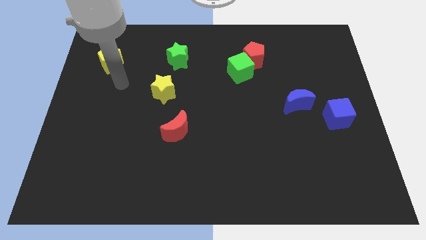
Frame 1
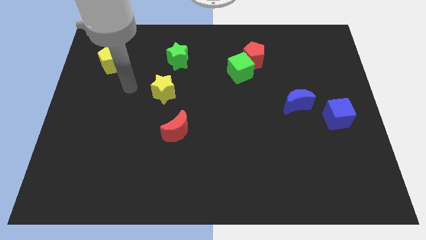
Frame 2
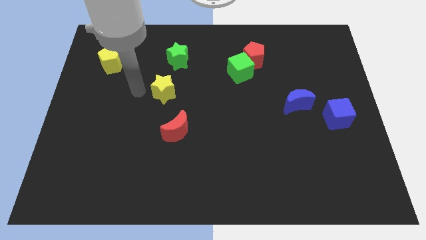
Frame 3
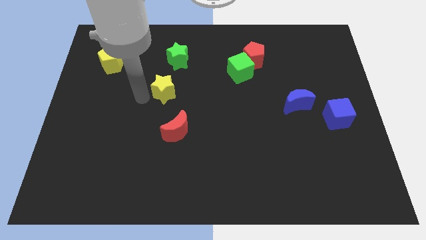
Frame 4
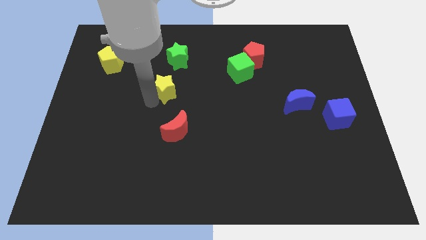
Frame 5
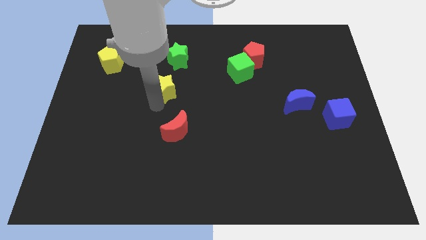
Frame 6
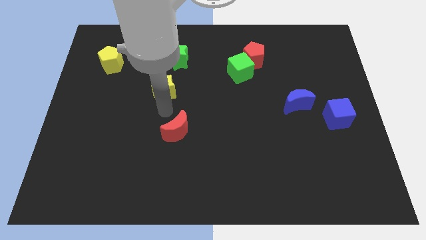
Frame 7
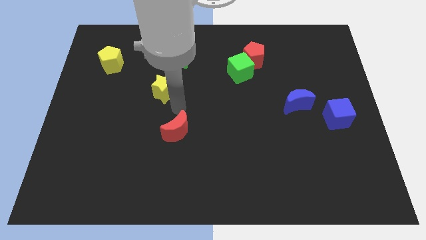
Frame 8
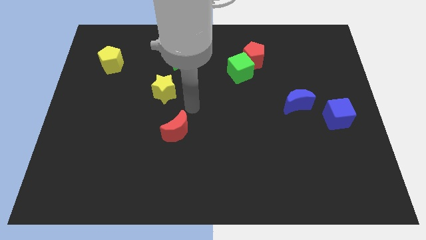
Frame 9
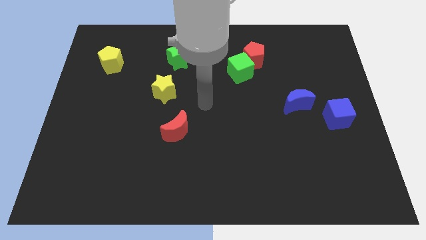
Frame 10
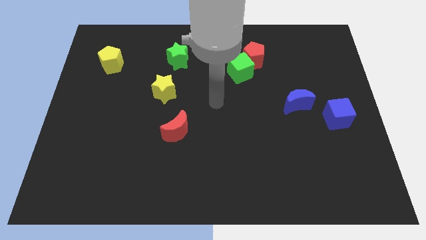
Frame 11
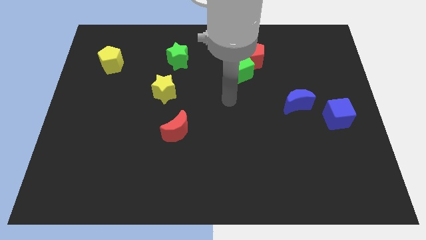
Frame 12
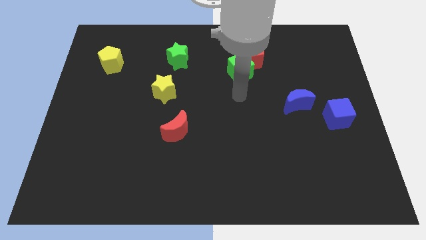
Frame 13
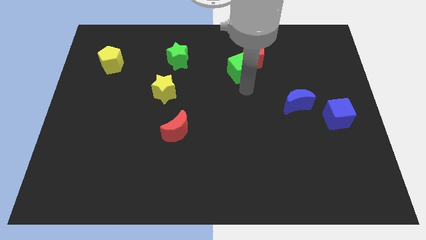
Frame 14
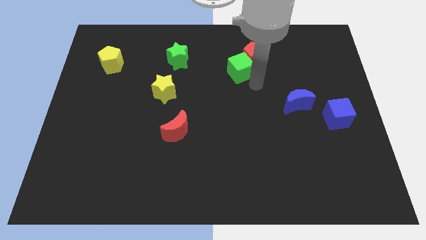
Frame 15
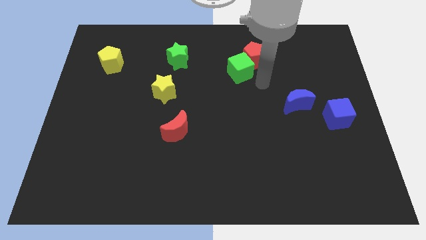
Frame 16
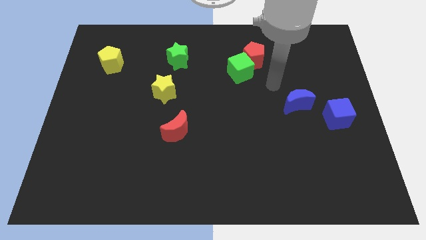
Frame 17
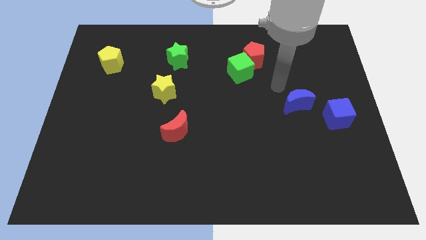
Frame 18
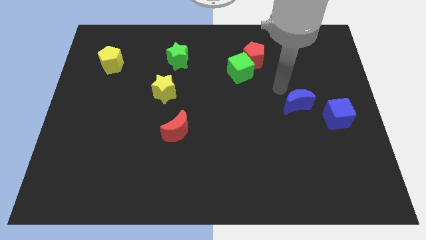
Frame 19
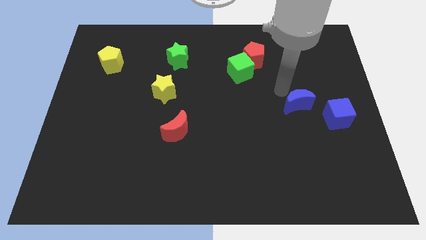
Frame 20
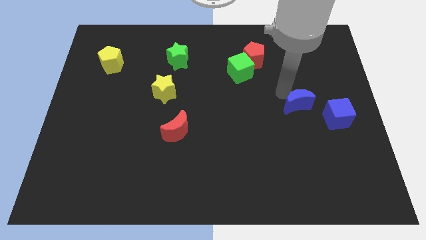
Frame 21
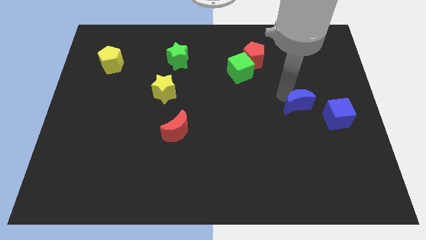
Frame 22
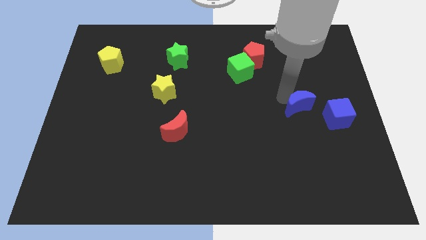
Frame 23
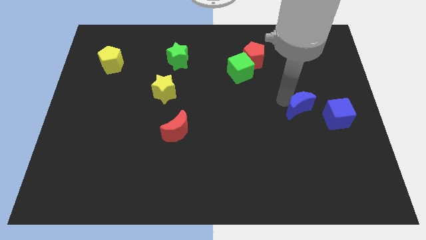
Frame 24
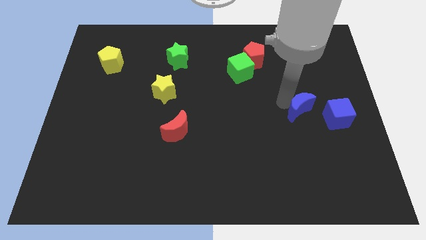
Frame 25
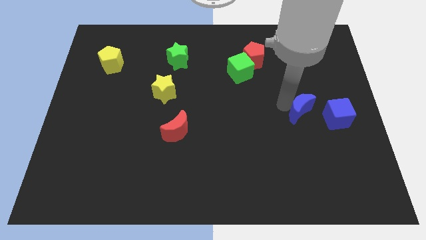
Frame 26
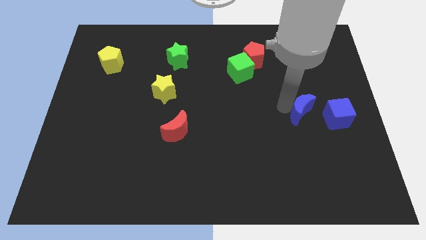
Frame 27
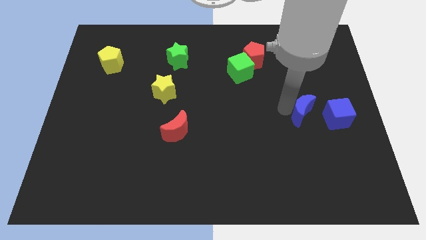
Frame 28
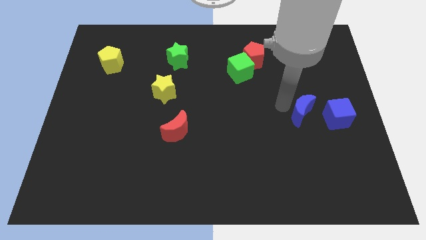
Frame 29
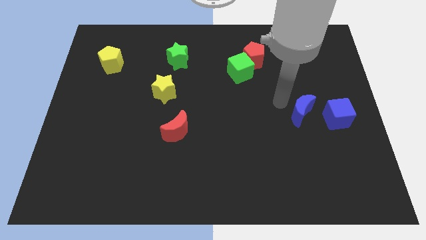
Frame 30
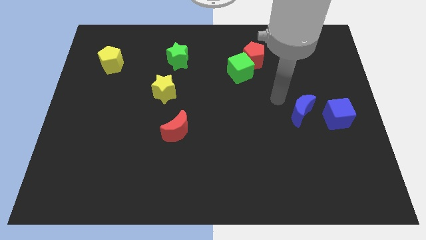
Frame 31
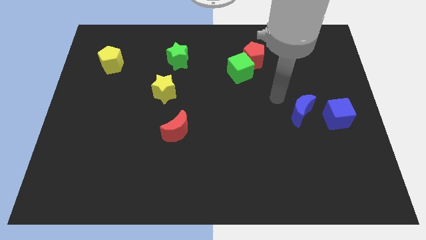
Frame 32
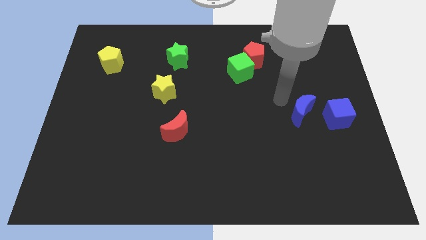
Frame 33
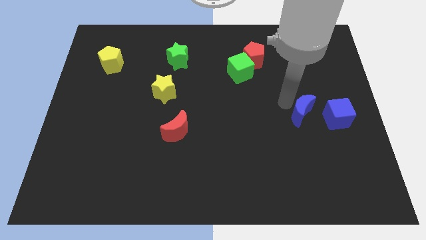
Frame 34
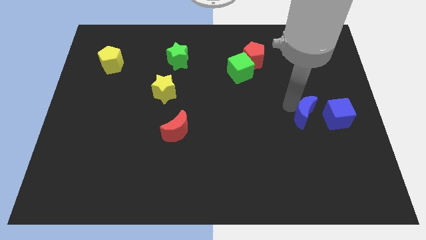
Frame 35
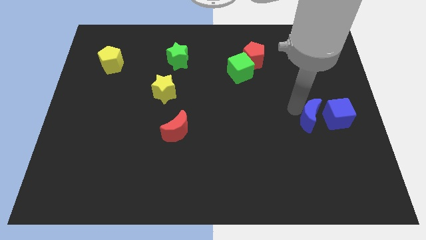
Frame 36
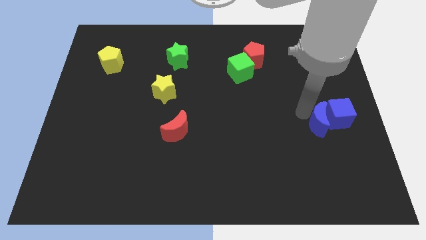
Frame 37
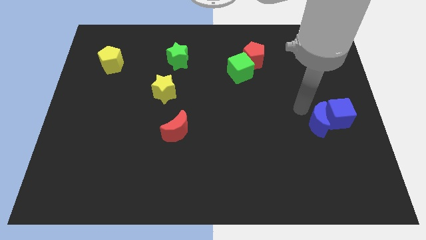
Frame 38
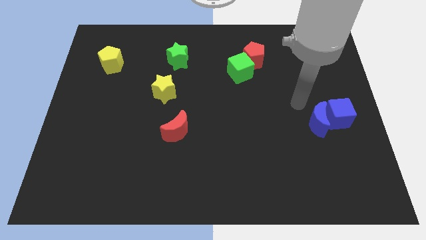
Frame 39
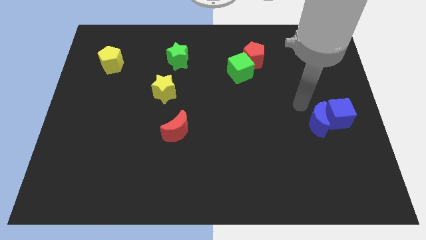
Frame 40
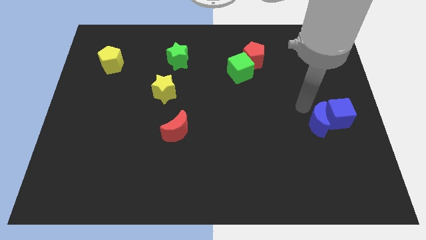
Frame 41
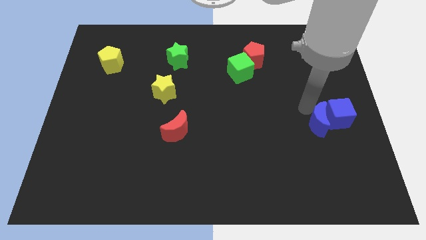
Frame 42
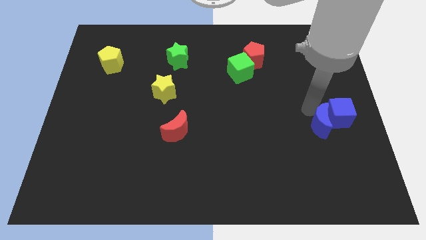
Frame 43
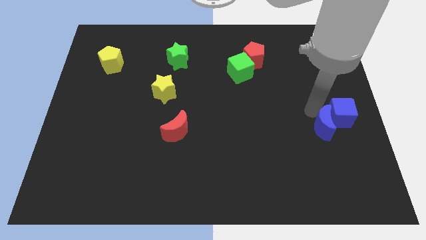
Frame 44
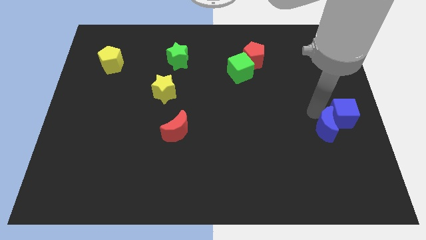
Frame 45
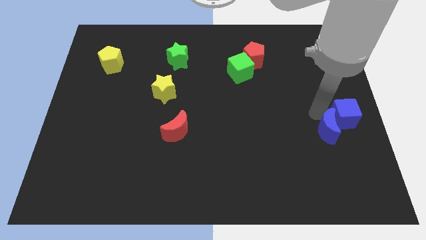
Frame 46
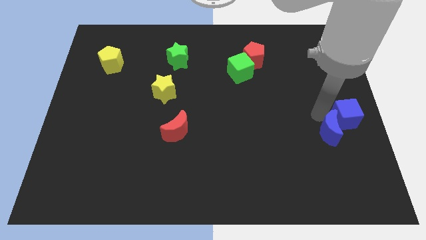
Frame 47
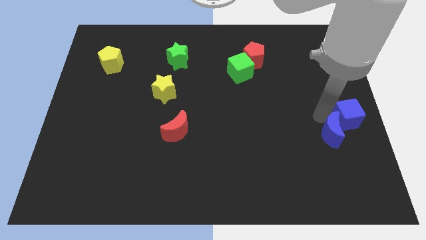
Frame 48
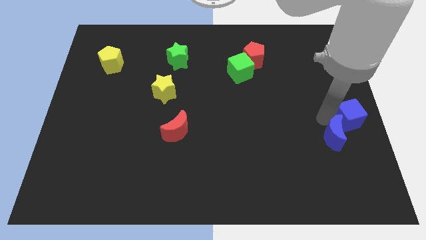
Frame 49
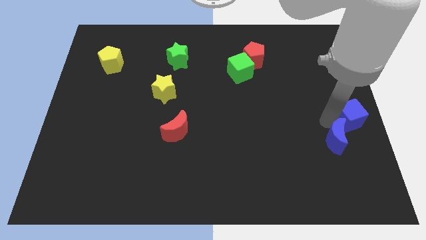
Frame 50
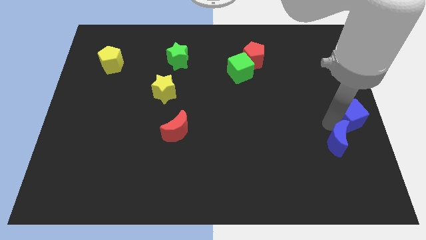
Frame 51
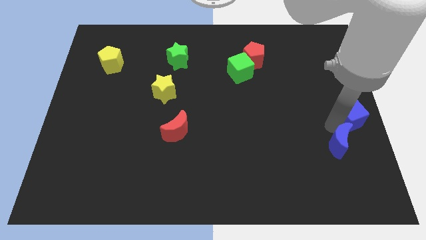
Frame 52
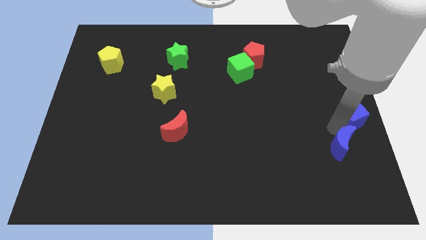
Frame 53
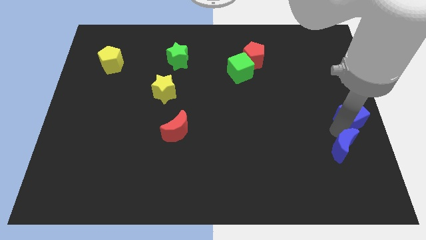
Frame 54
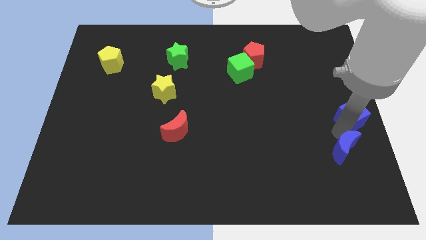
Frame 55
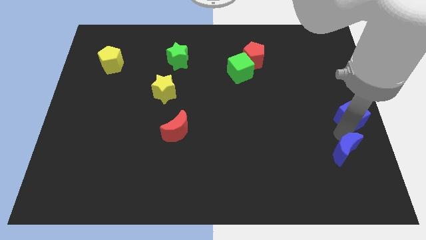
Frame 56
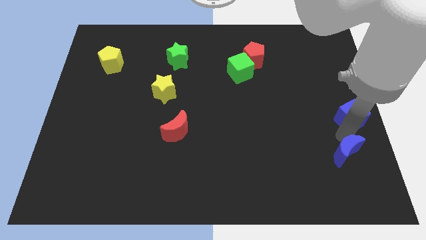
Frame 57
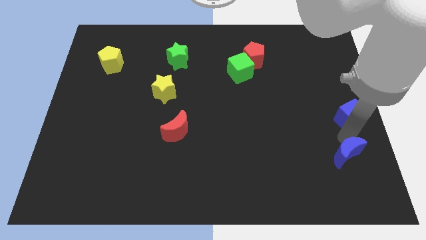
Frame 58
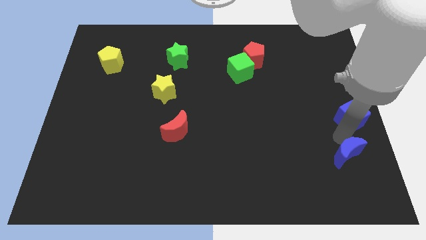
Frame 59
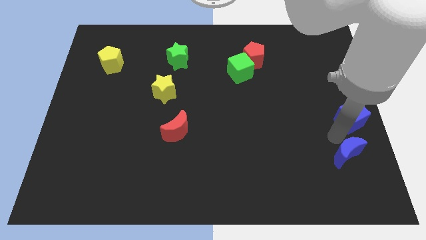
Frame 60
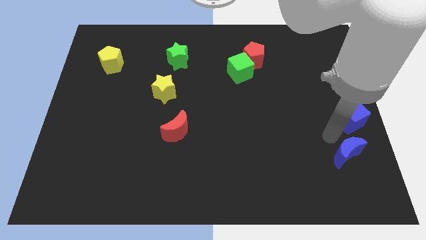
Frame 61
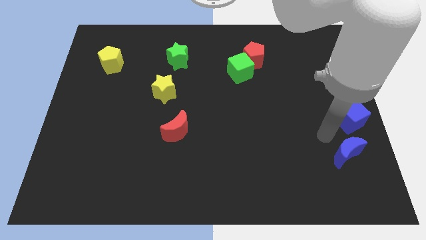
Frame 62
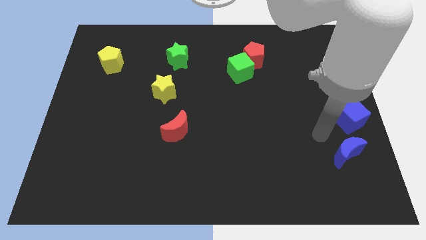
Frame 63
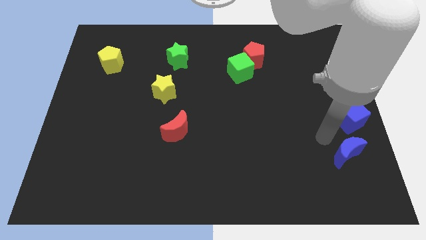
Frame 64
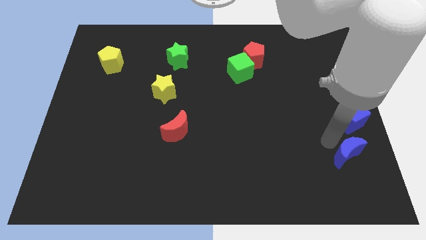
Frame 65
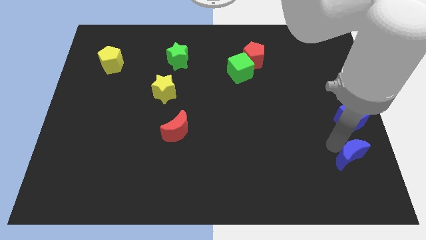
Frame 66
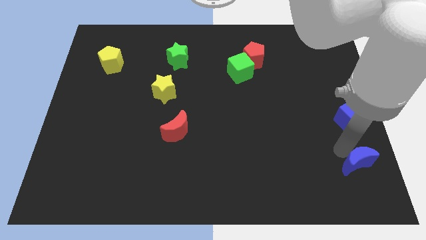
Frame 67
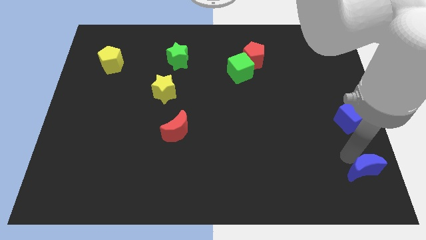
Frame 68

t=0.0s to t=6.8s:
move the blue moon to the bottom right corner
